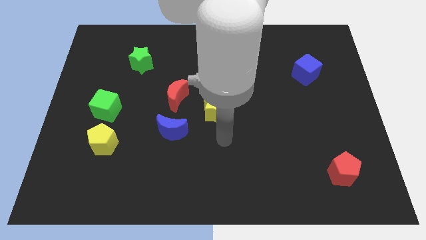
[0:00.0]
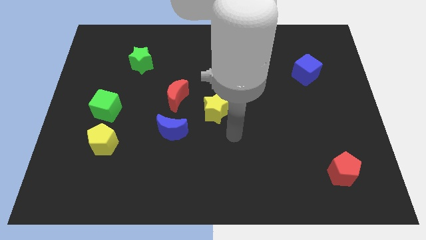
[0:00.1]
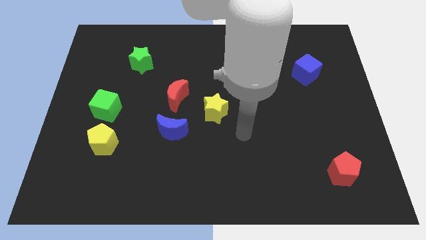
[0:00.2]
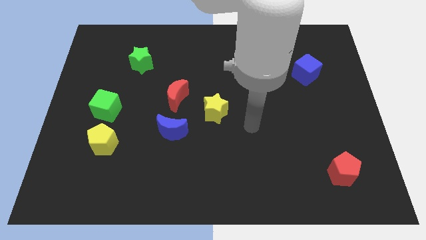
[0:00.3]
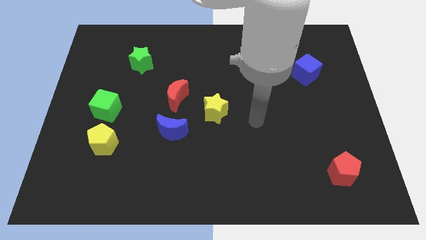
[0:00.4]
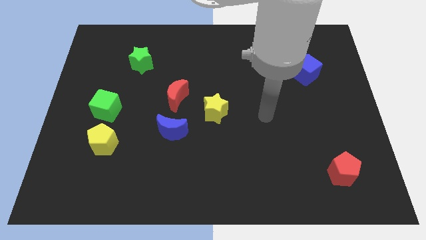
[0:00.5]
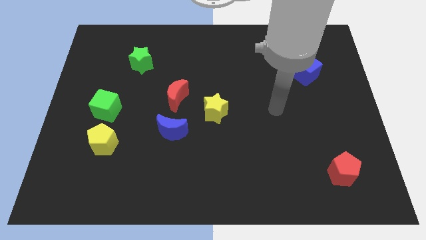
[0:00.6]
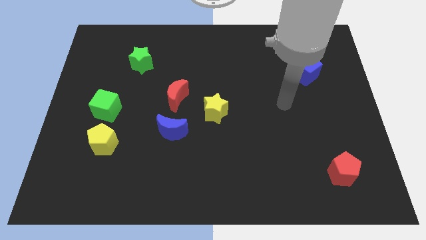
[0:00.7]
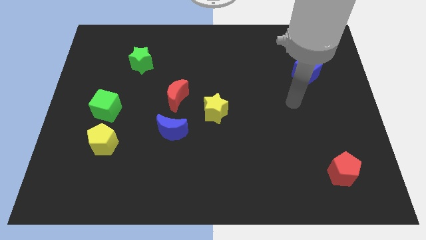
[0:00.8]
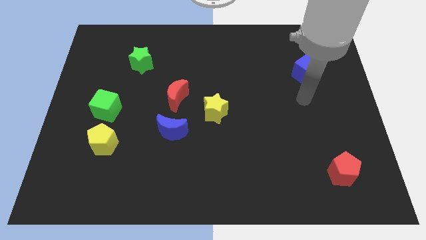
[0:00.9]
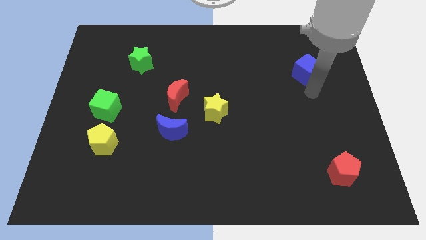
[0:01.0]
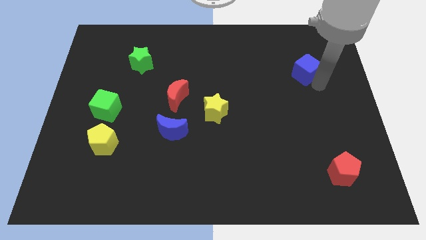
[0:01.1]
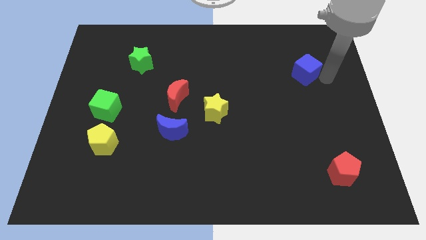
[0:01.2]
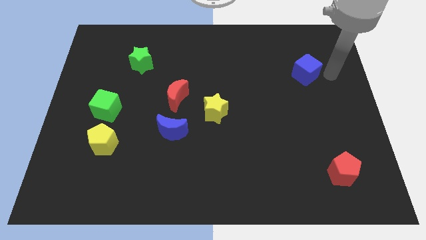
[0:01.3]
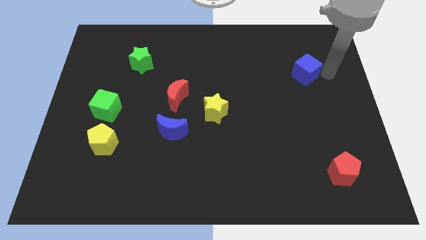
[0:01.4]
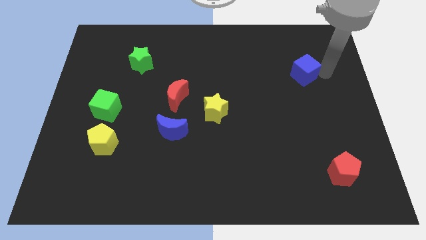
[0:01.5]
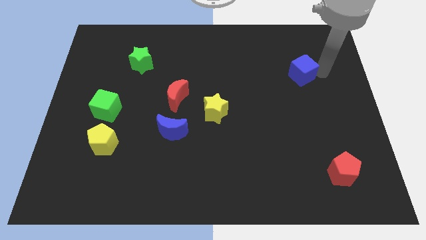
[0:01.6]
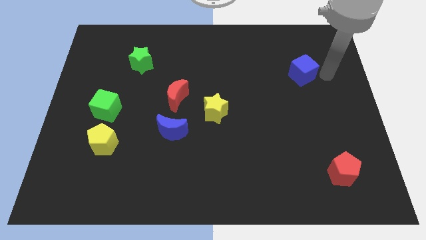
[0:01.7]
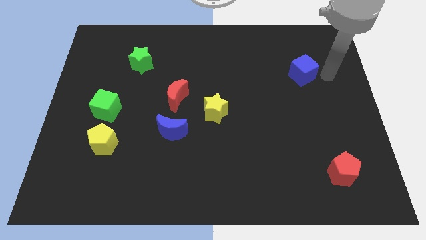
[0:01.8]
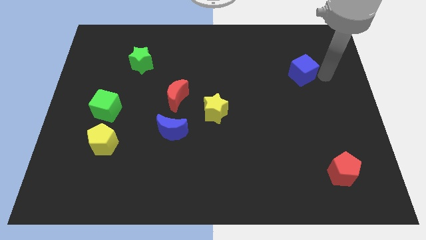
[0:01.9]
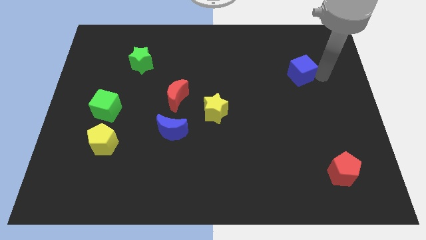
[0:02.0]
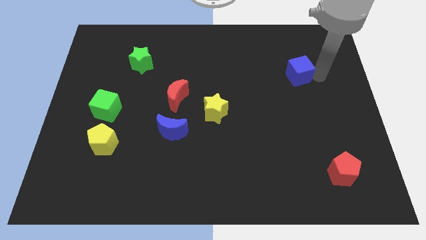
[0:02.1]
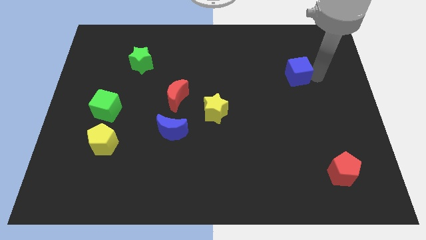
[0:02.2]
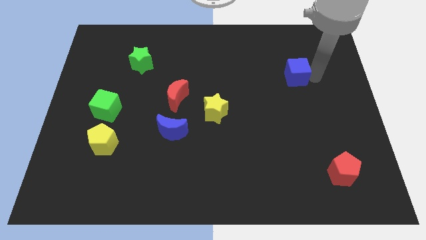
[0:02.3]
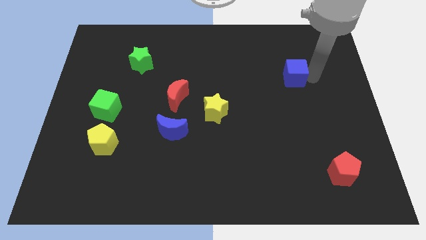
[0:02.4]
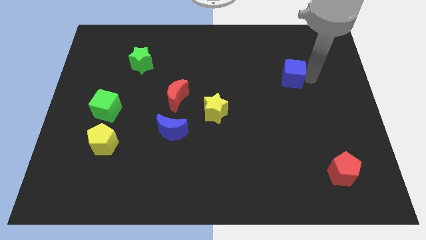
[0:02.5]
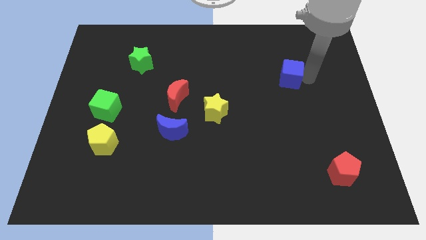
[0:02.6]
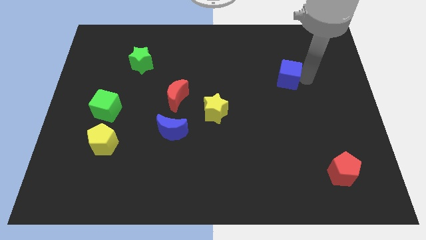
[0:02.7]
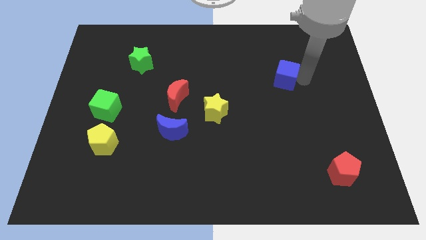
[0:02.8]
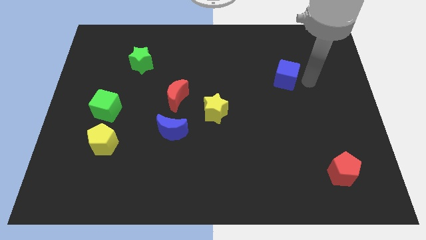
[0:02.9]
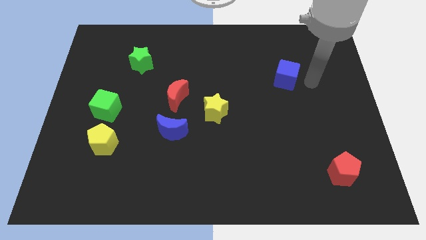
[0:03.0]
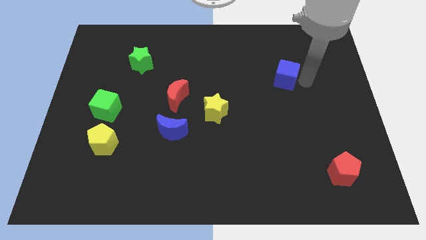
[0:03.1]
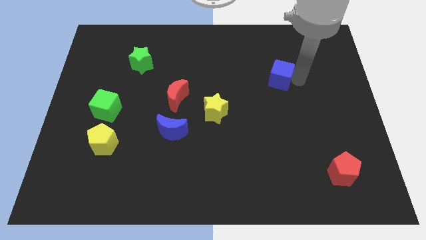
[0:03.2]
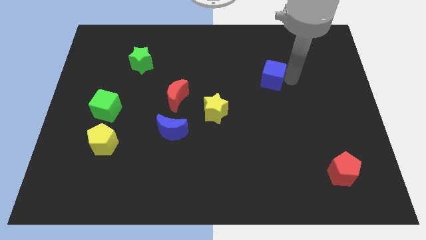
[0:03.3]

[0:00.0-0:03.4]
slightly slide the blue cube left

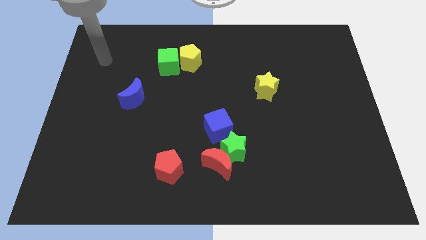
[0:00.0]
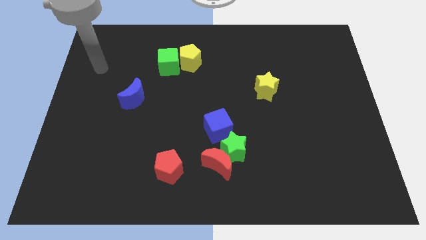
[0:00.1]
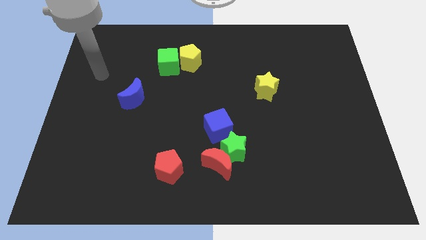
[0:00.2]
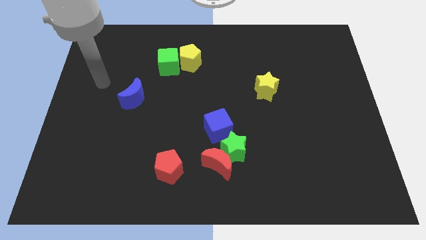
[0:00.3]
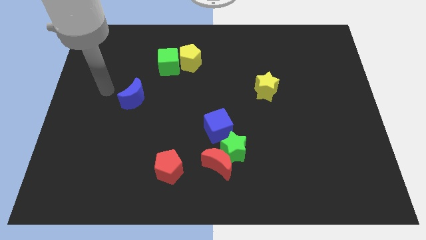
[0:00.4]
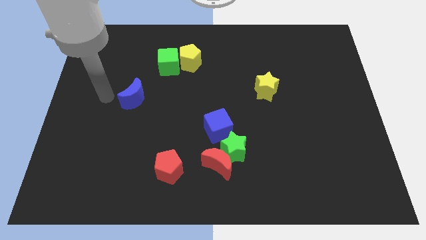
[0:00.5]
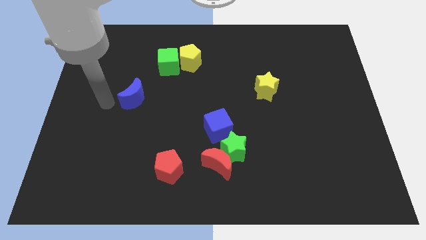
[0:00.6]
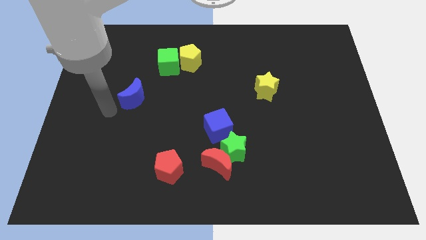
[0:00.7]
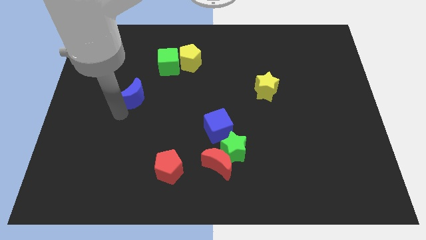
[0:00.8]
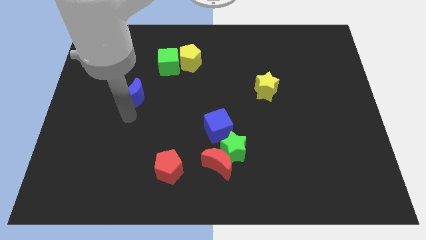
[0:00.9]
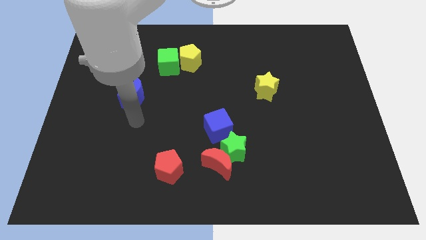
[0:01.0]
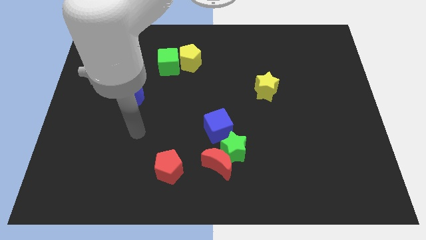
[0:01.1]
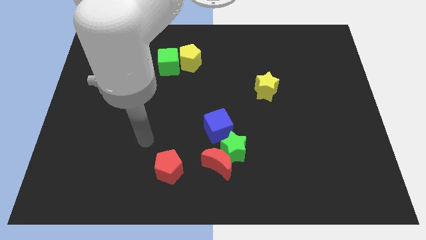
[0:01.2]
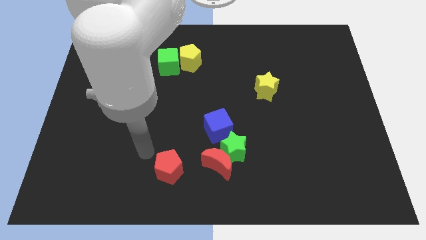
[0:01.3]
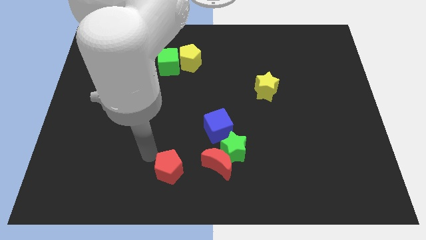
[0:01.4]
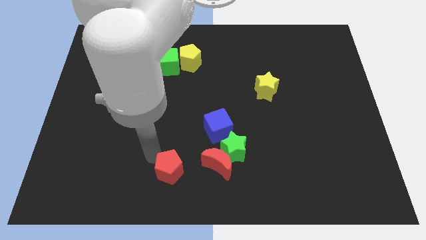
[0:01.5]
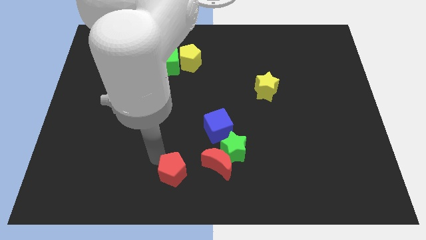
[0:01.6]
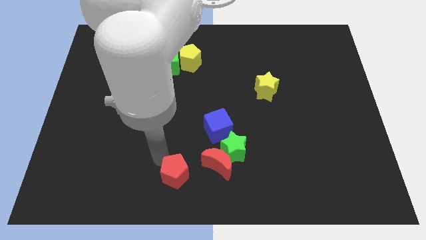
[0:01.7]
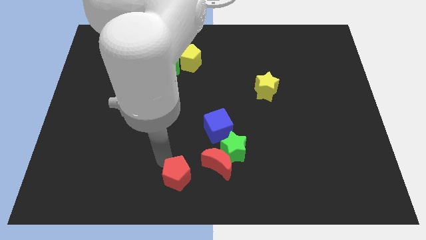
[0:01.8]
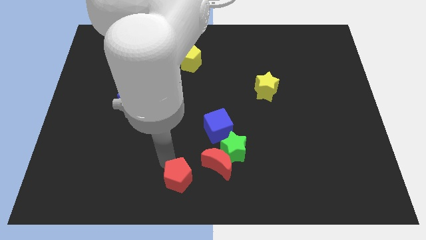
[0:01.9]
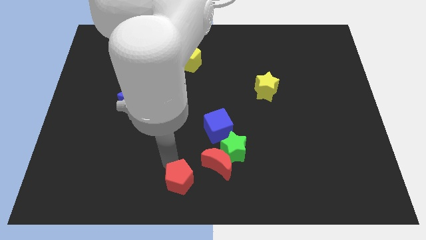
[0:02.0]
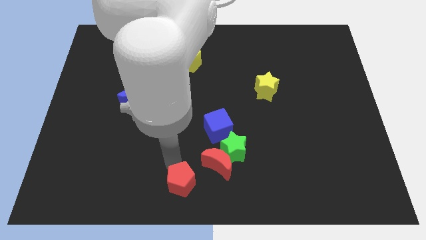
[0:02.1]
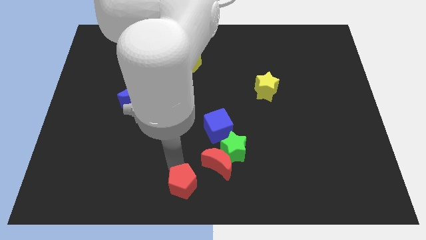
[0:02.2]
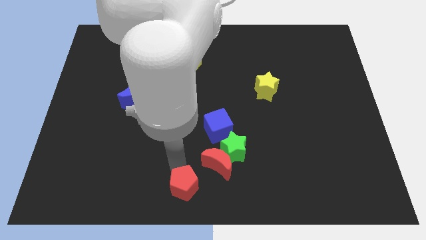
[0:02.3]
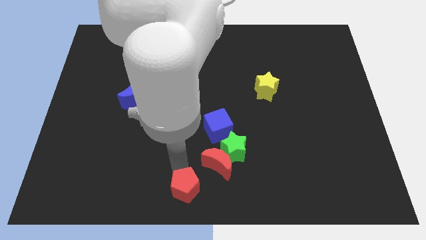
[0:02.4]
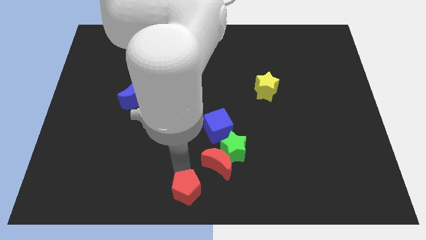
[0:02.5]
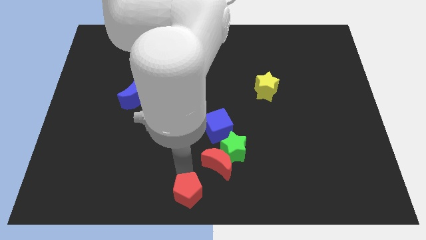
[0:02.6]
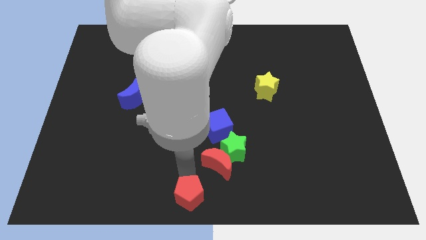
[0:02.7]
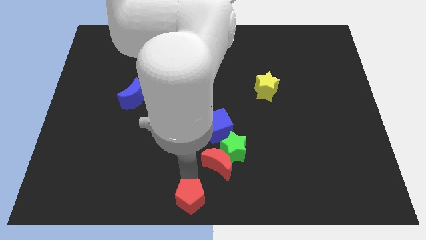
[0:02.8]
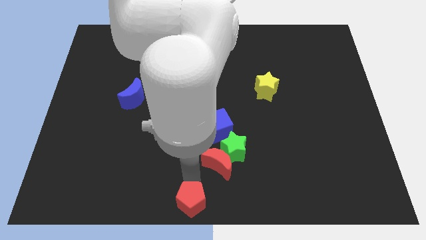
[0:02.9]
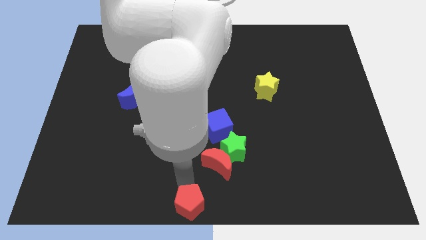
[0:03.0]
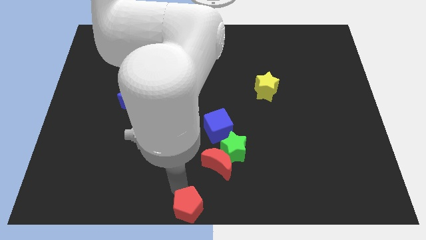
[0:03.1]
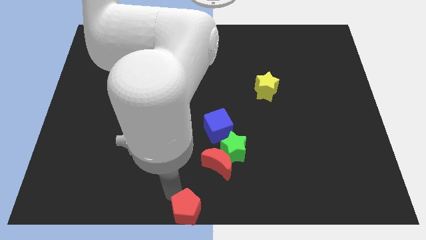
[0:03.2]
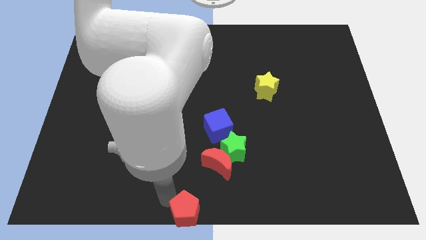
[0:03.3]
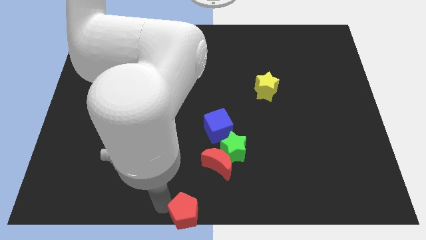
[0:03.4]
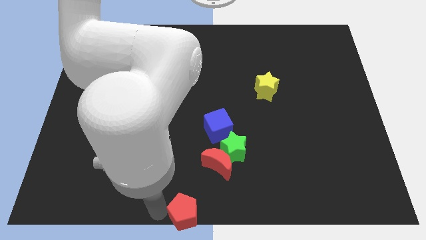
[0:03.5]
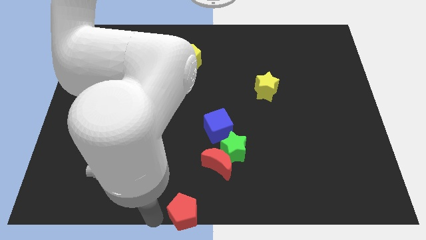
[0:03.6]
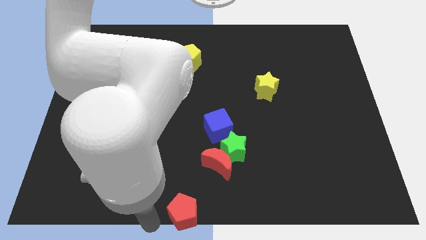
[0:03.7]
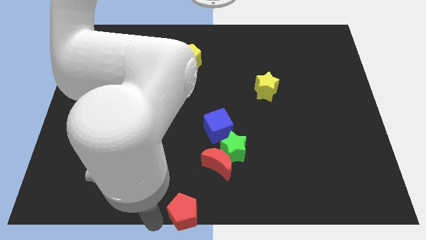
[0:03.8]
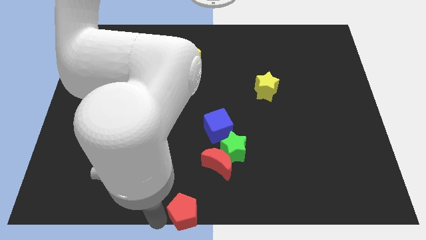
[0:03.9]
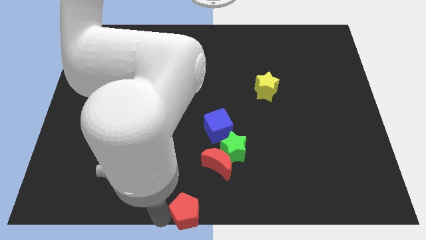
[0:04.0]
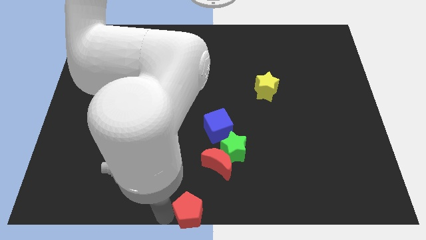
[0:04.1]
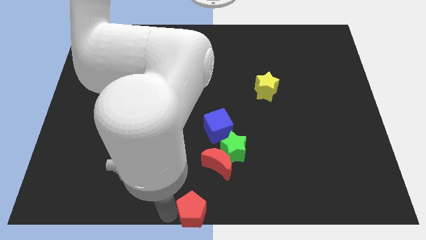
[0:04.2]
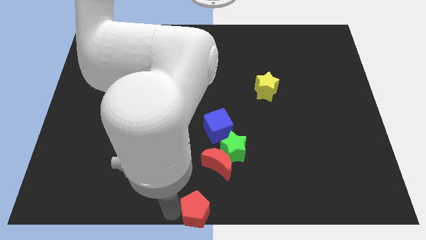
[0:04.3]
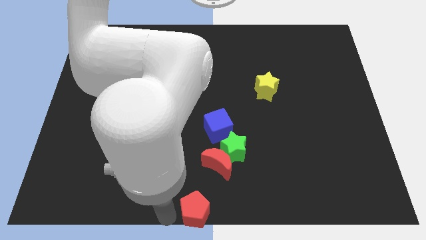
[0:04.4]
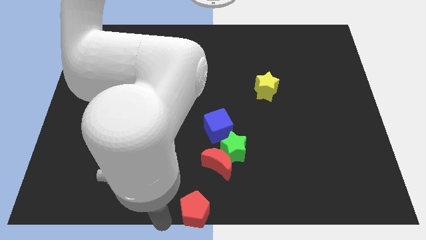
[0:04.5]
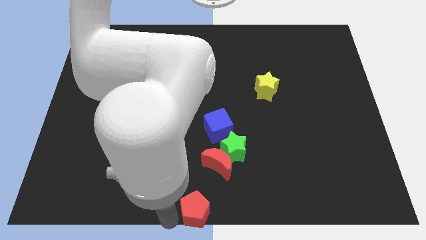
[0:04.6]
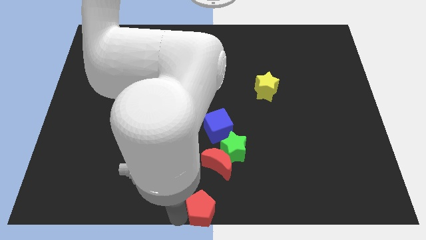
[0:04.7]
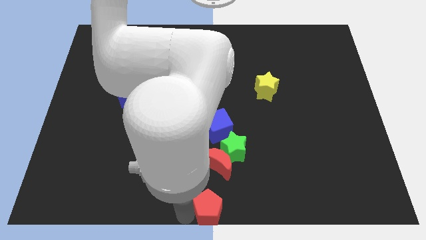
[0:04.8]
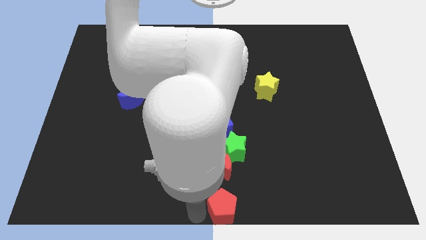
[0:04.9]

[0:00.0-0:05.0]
slightly move the red pentagon right
